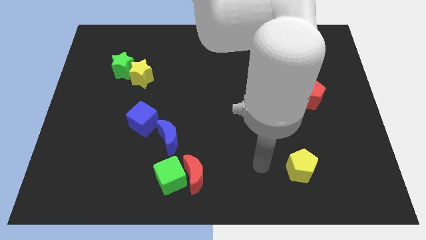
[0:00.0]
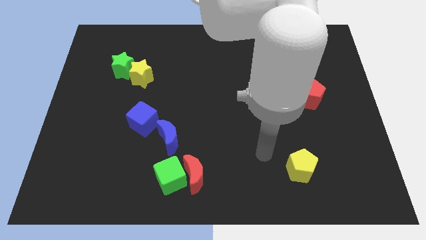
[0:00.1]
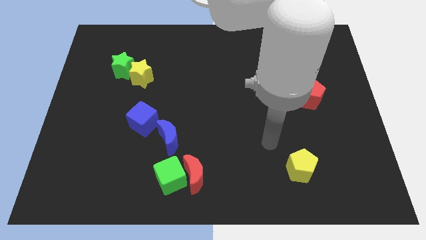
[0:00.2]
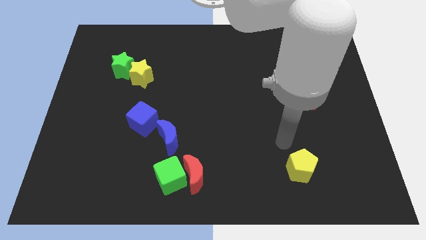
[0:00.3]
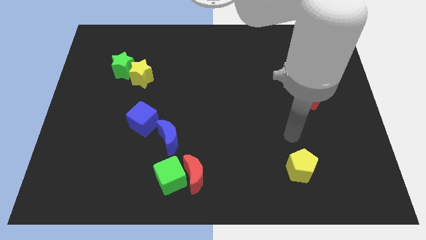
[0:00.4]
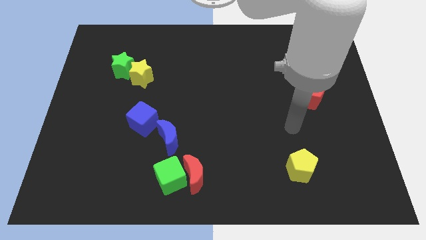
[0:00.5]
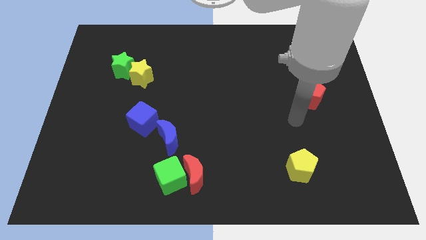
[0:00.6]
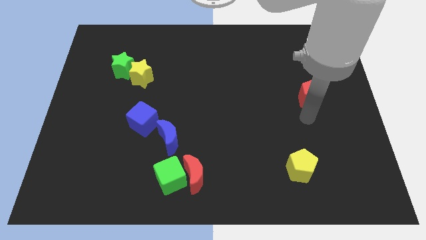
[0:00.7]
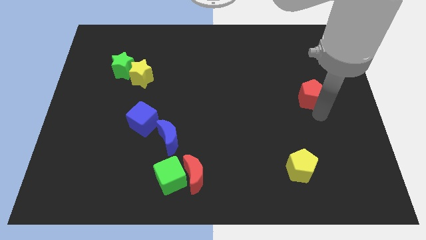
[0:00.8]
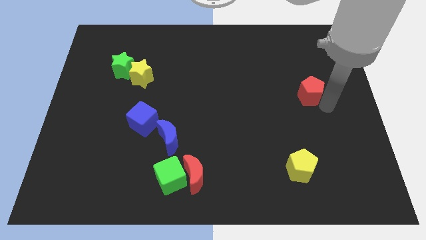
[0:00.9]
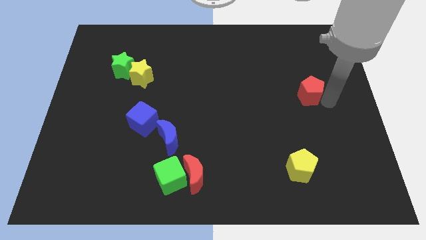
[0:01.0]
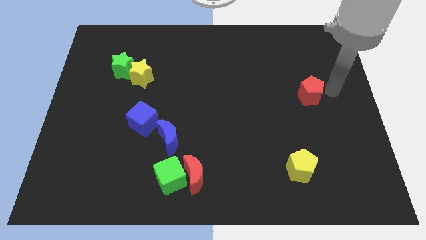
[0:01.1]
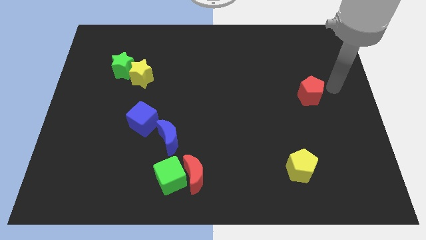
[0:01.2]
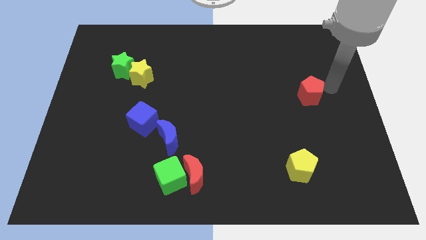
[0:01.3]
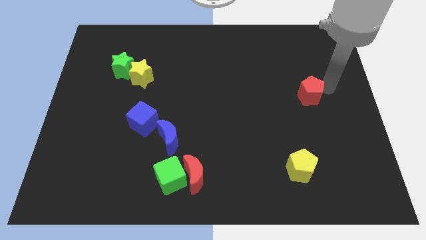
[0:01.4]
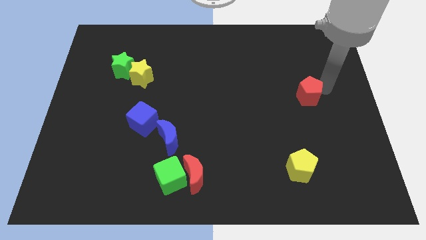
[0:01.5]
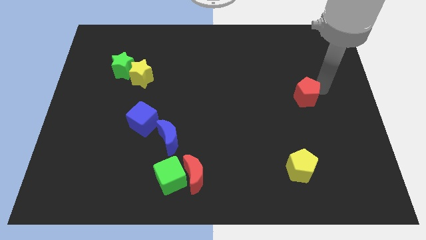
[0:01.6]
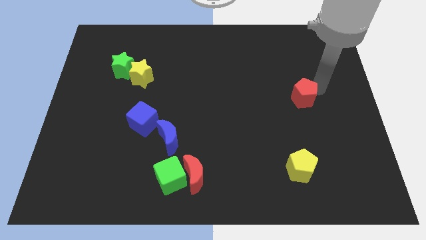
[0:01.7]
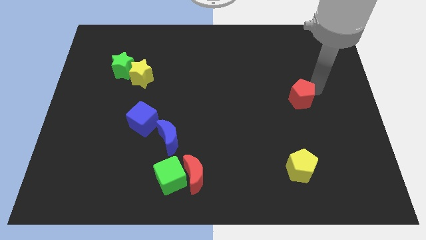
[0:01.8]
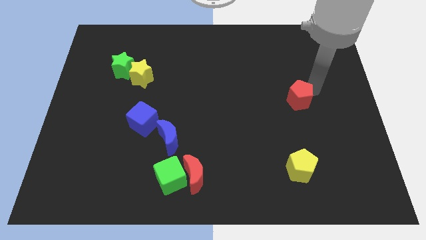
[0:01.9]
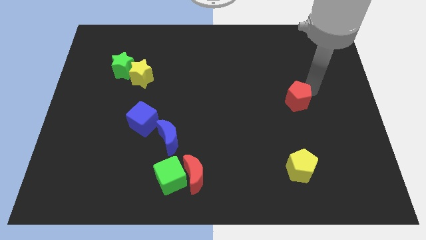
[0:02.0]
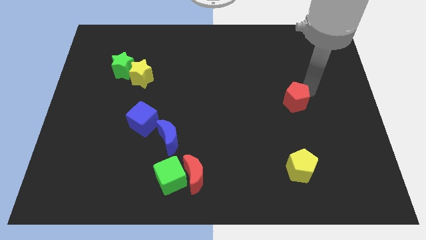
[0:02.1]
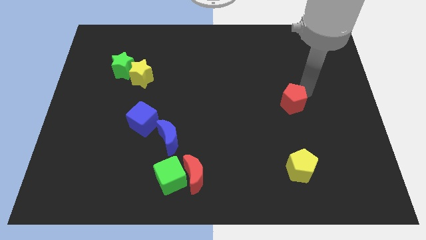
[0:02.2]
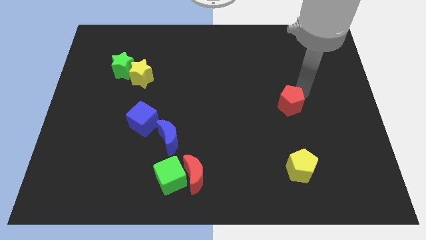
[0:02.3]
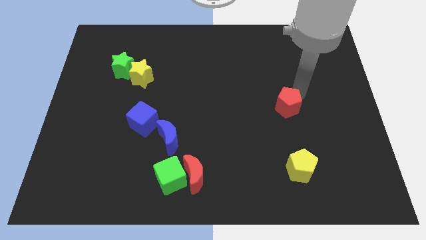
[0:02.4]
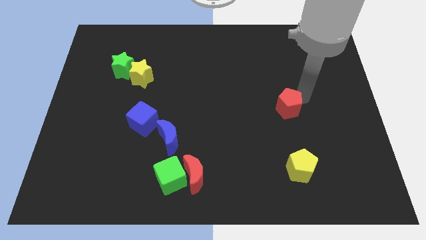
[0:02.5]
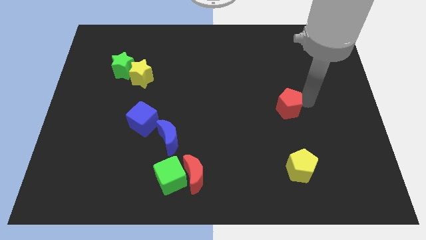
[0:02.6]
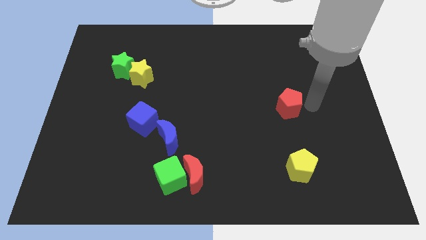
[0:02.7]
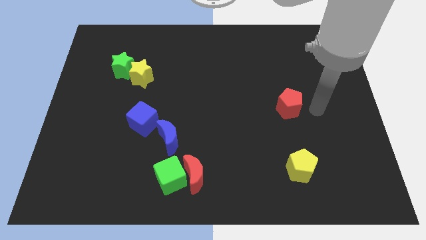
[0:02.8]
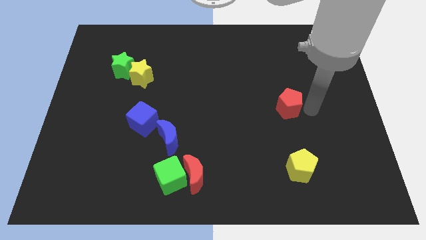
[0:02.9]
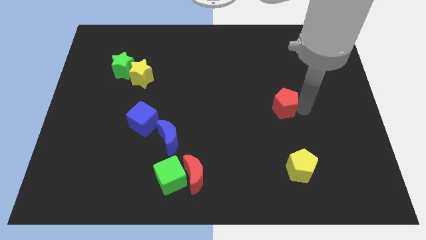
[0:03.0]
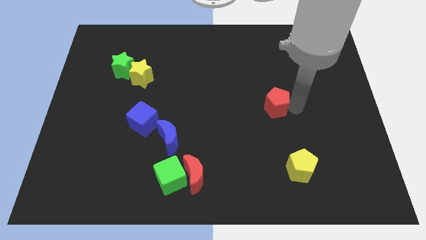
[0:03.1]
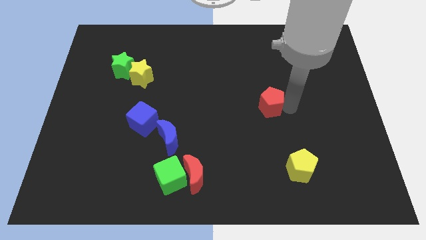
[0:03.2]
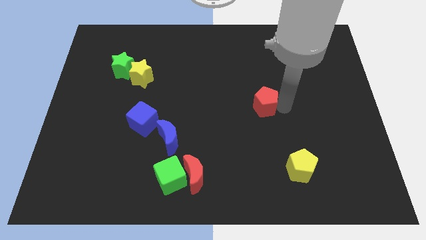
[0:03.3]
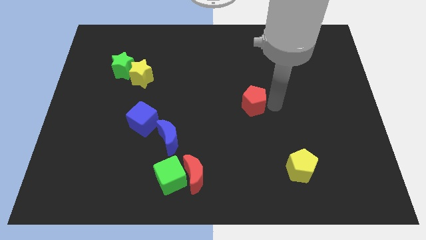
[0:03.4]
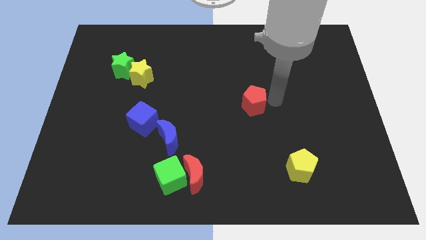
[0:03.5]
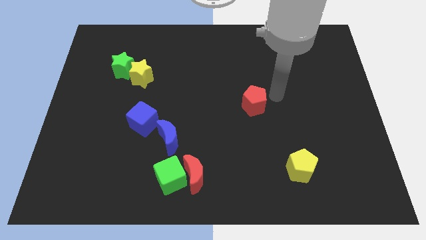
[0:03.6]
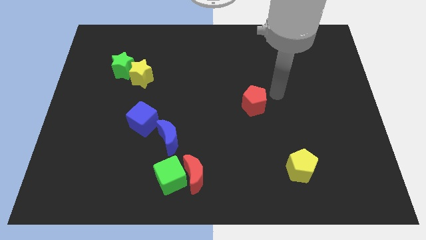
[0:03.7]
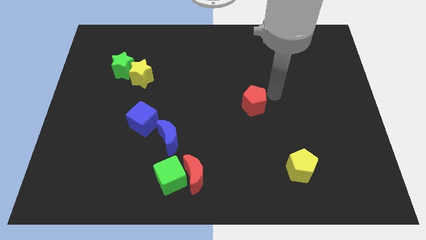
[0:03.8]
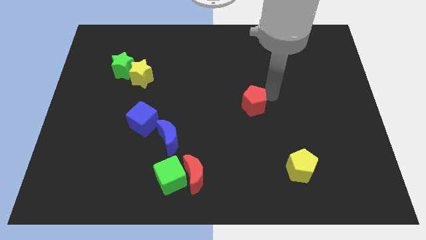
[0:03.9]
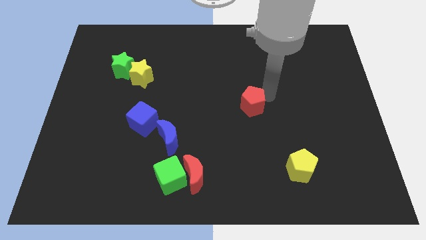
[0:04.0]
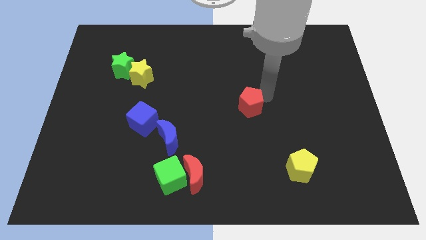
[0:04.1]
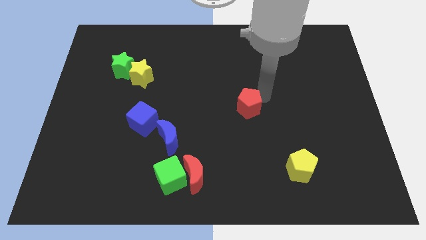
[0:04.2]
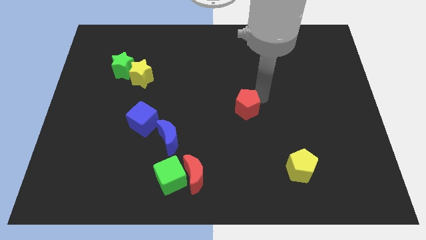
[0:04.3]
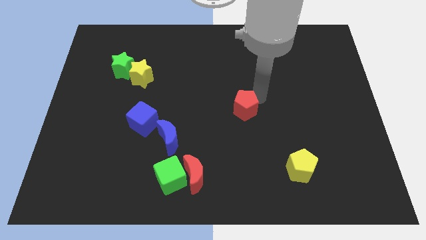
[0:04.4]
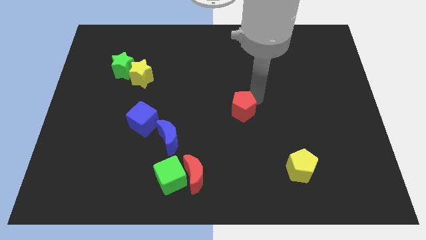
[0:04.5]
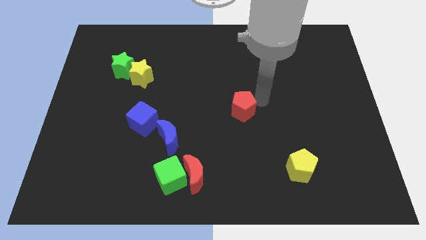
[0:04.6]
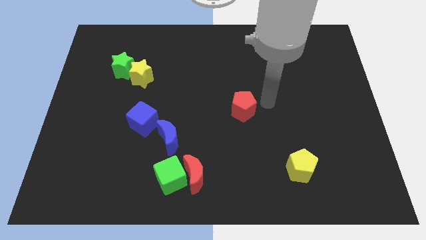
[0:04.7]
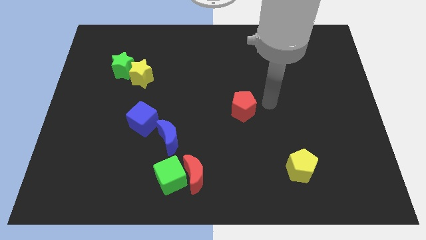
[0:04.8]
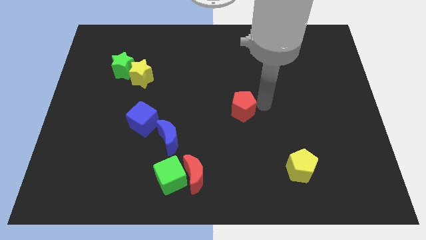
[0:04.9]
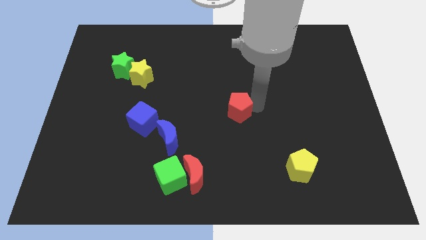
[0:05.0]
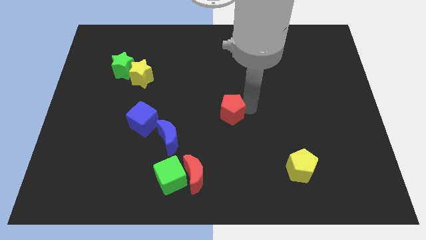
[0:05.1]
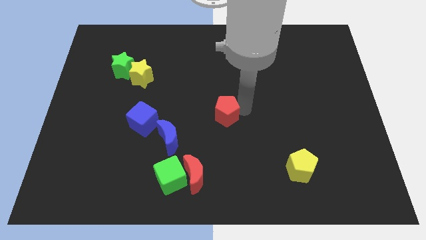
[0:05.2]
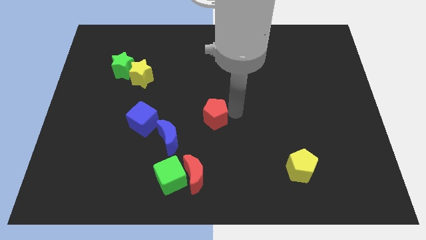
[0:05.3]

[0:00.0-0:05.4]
move the red pentagon to the top right of the blue moon

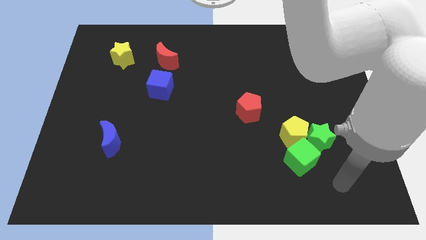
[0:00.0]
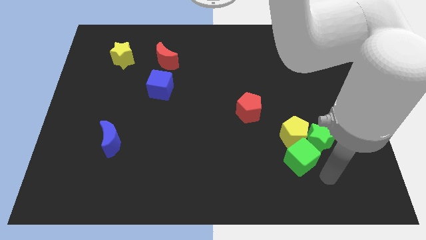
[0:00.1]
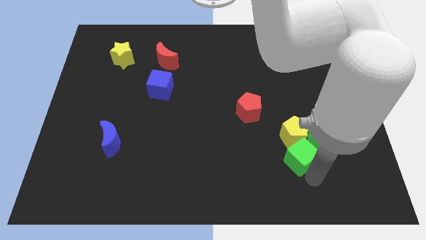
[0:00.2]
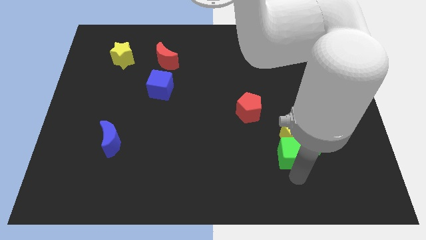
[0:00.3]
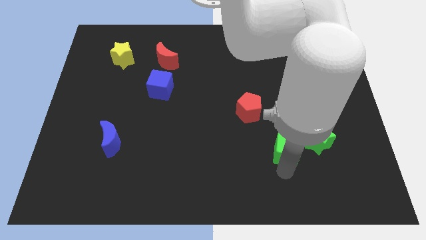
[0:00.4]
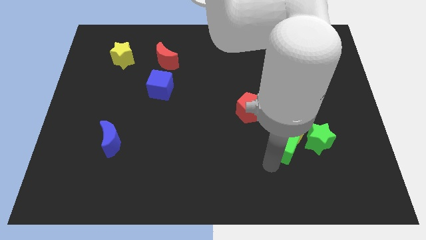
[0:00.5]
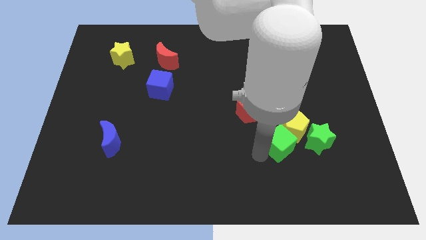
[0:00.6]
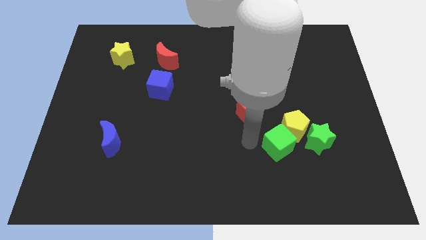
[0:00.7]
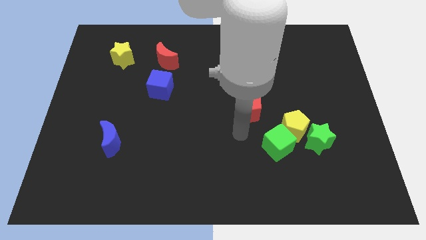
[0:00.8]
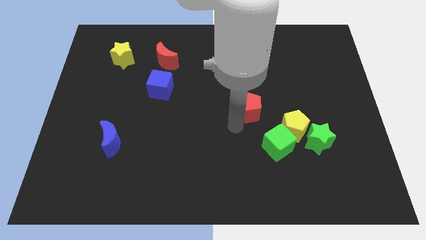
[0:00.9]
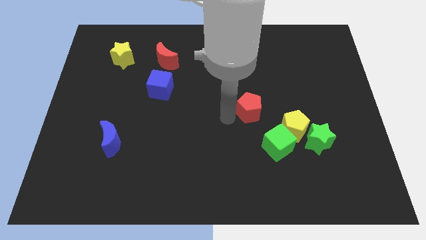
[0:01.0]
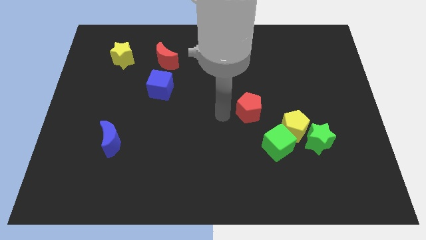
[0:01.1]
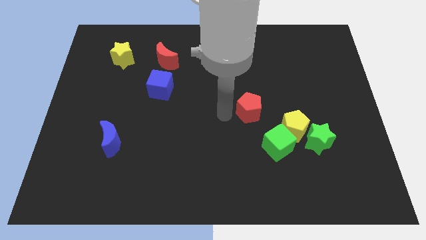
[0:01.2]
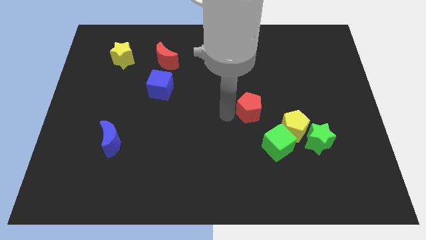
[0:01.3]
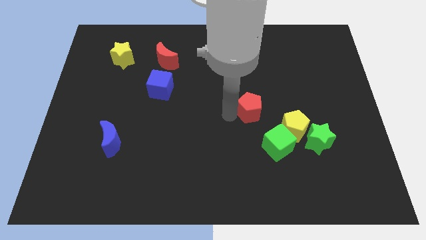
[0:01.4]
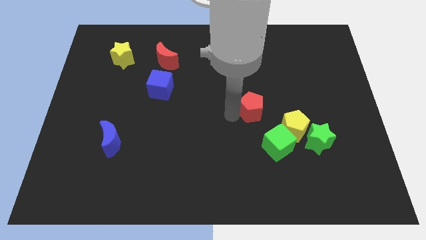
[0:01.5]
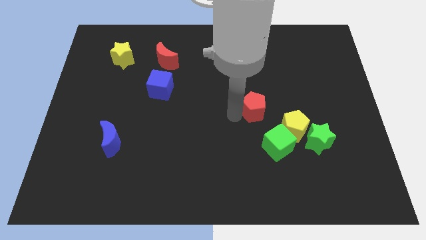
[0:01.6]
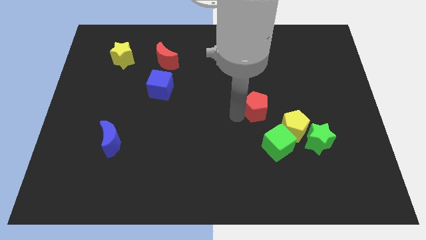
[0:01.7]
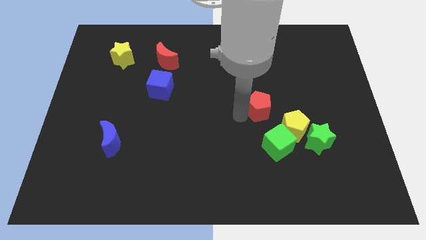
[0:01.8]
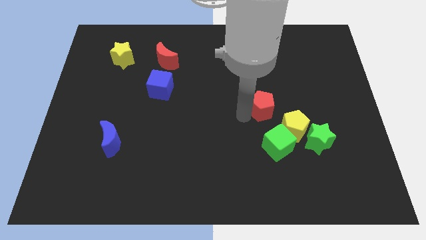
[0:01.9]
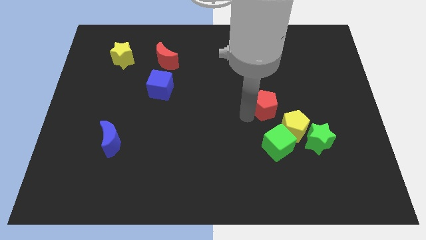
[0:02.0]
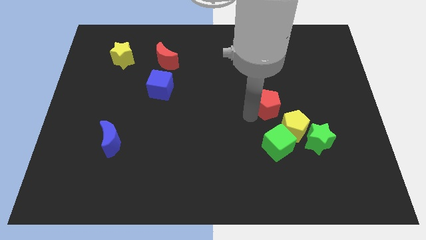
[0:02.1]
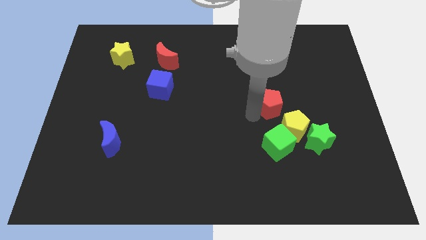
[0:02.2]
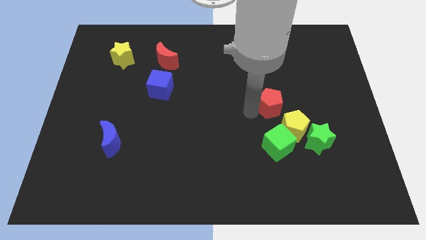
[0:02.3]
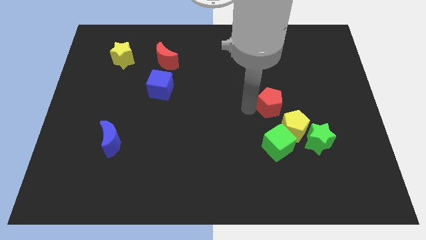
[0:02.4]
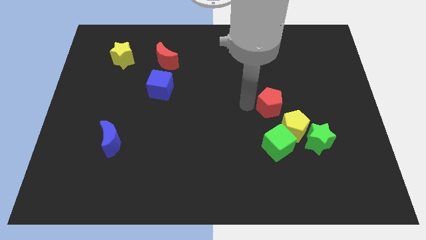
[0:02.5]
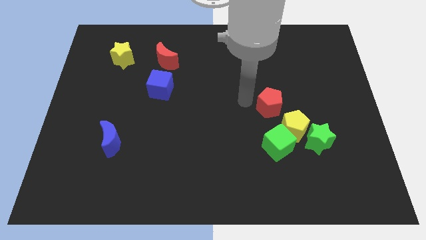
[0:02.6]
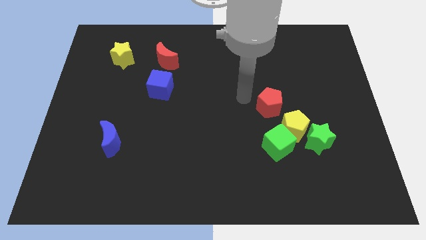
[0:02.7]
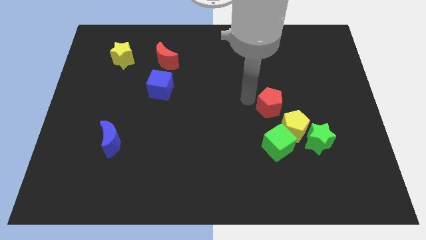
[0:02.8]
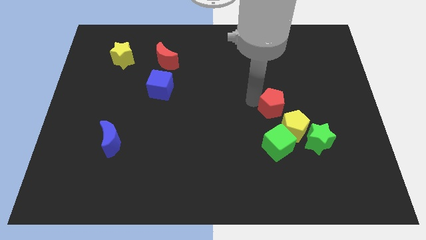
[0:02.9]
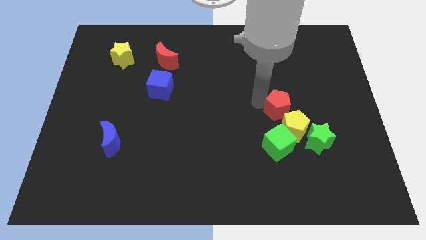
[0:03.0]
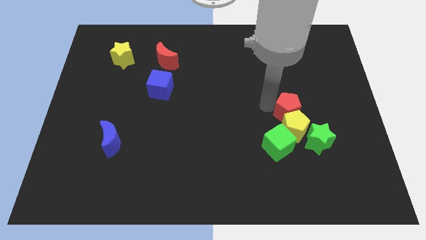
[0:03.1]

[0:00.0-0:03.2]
push the red pentagon diagonally up and to the right of the yellow pentagon
